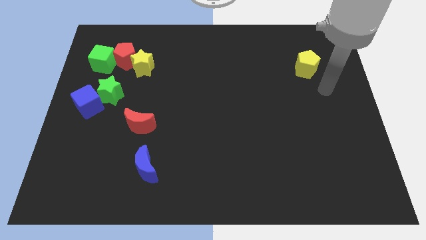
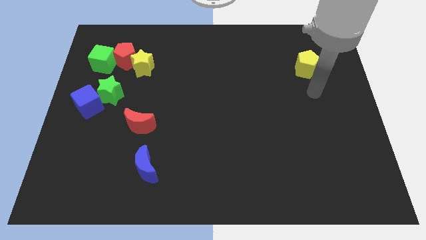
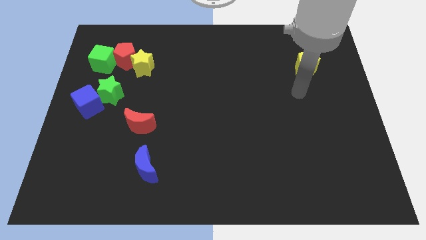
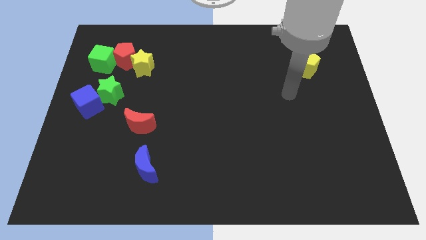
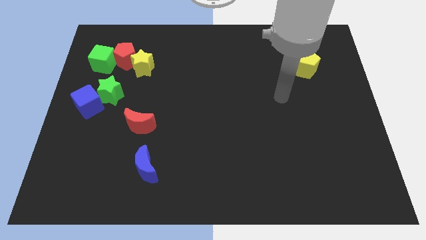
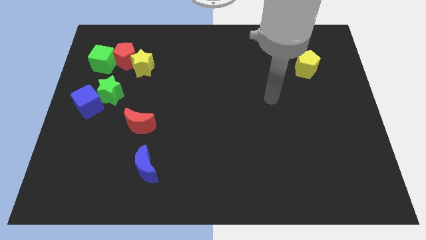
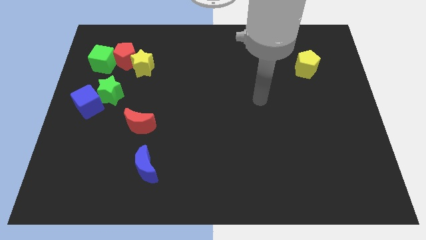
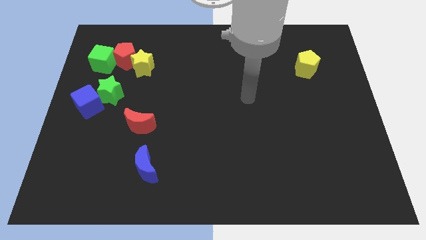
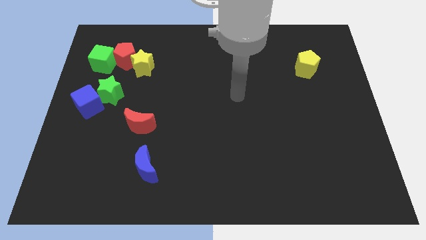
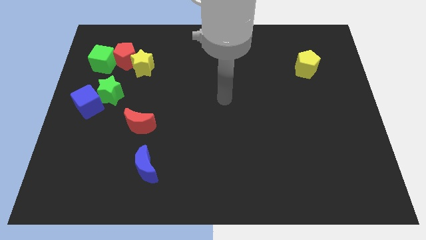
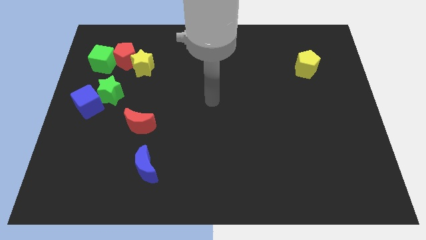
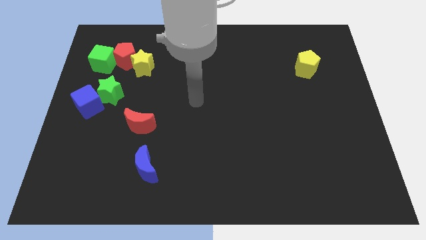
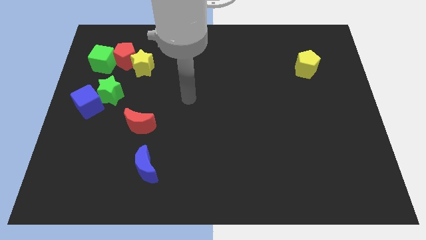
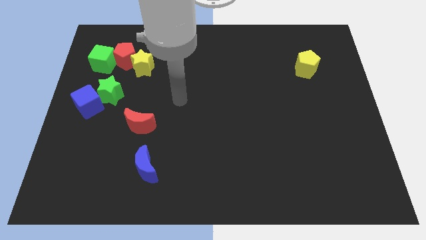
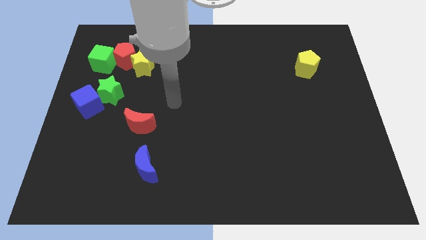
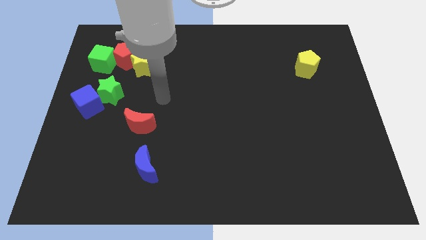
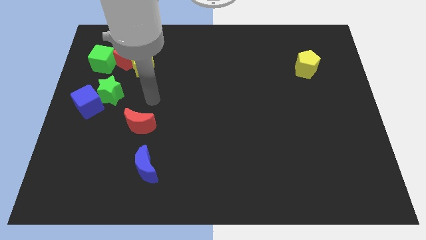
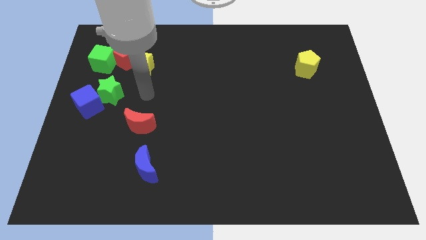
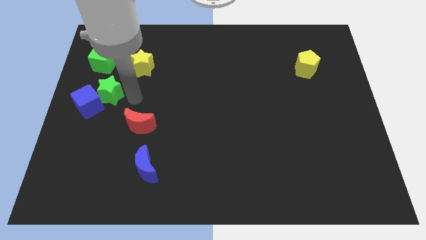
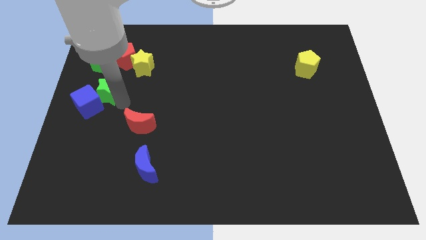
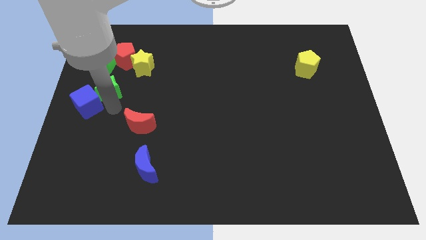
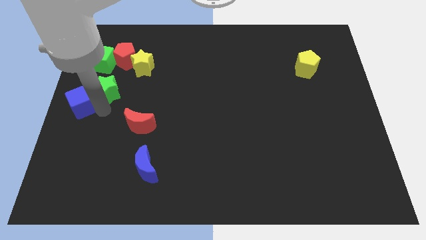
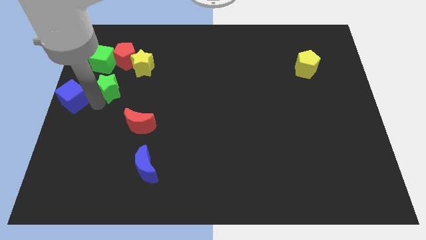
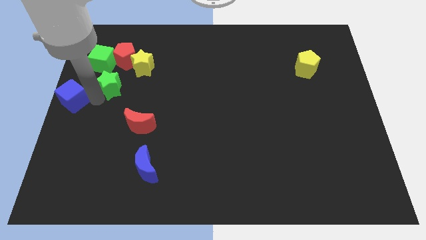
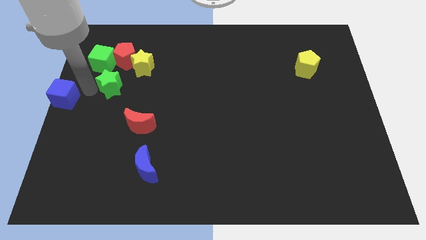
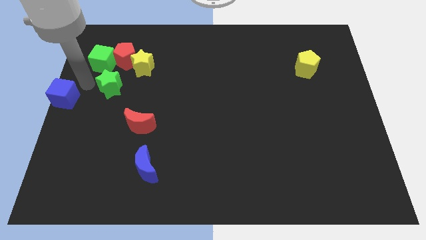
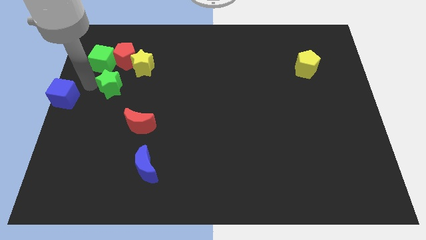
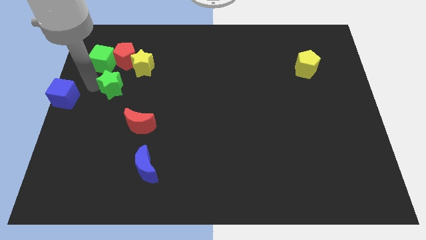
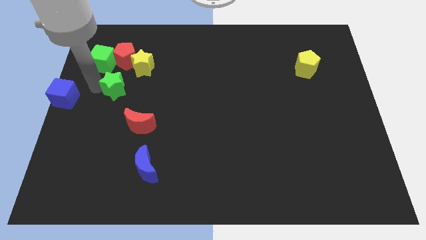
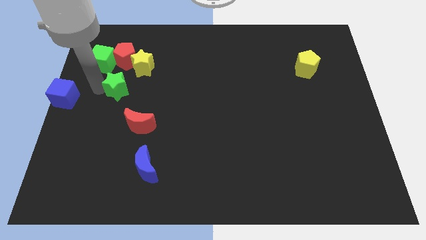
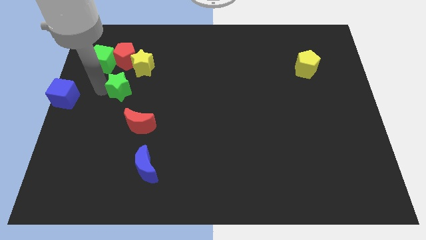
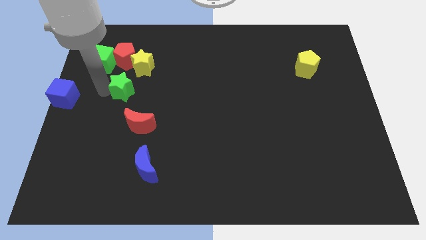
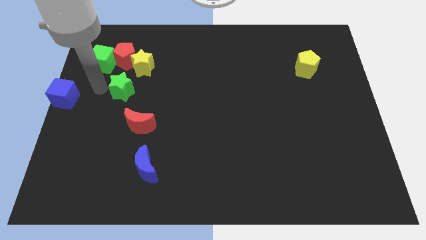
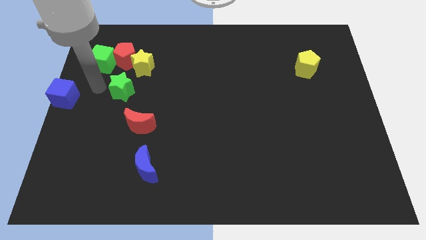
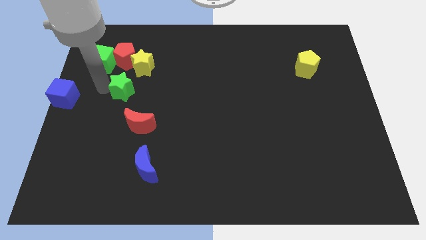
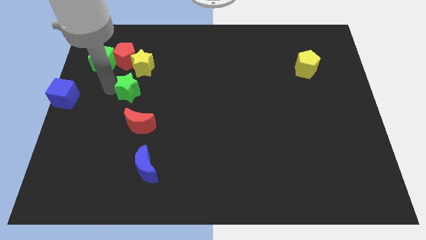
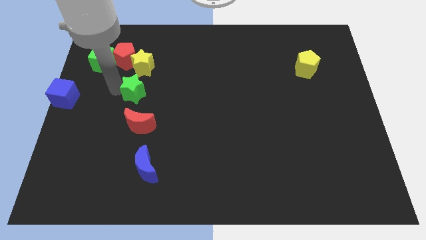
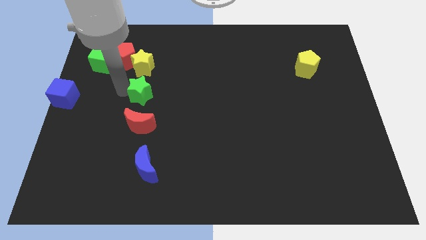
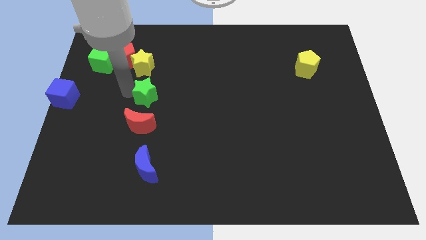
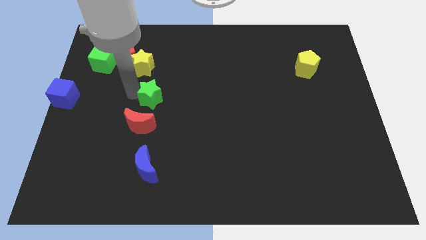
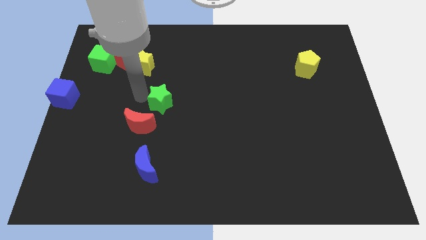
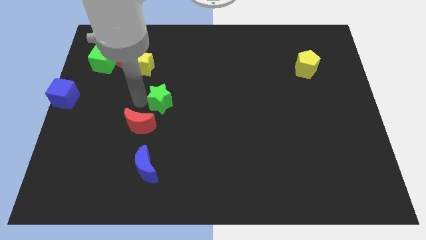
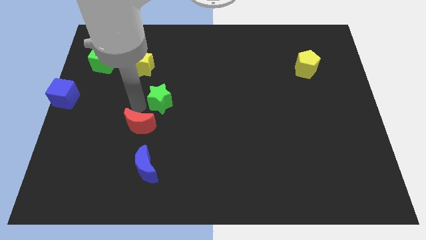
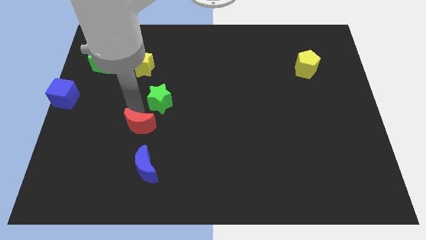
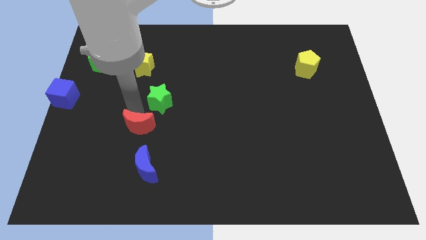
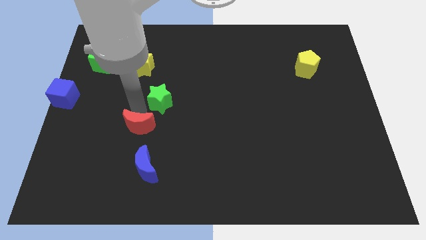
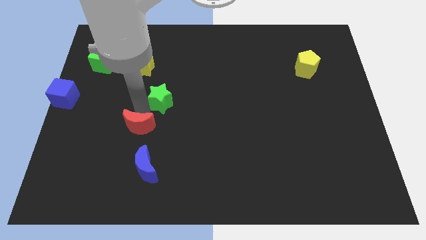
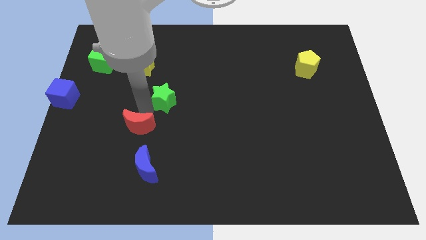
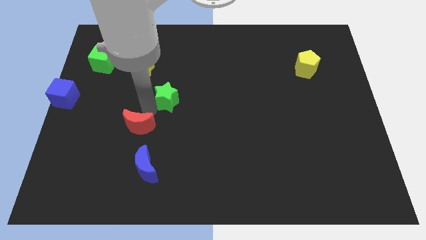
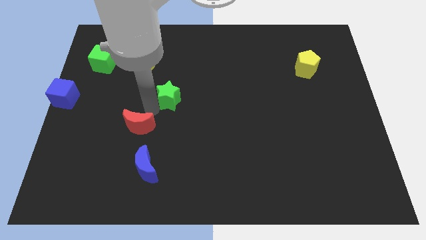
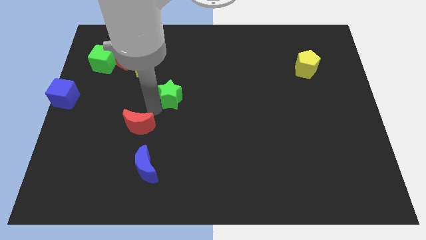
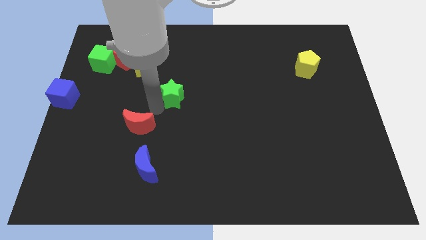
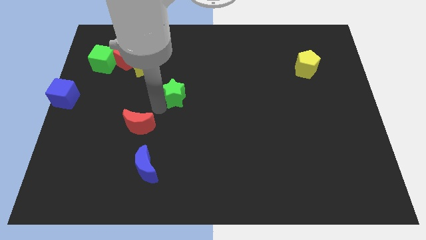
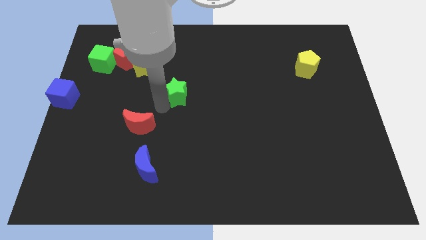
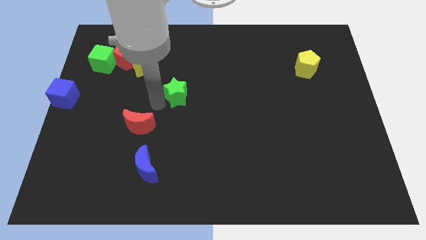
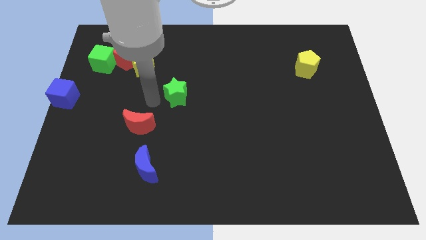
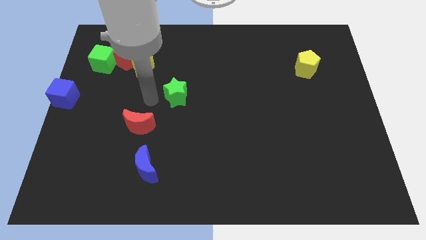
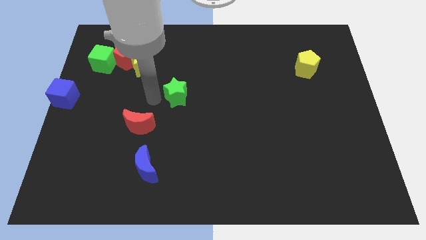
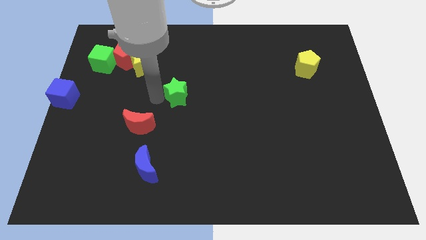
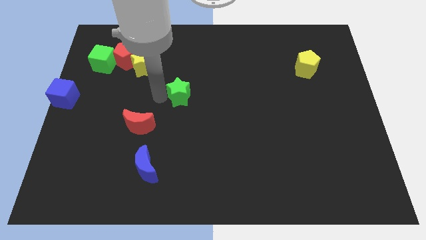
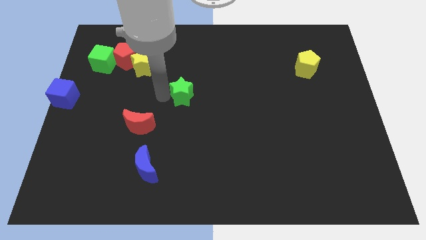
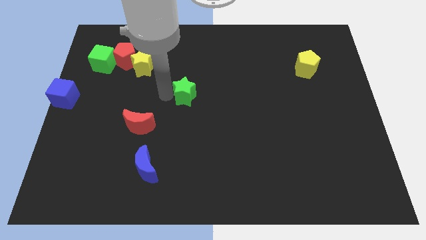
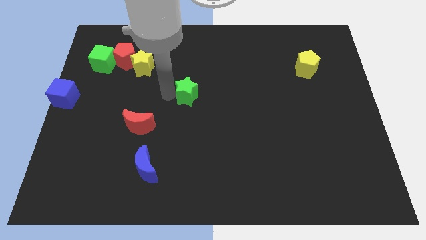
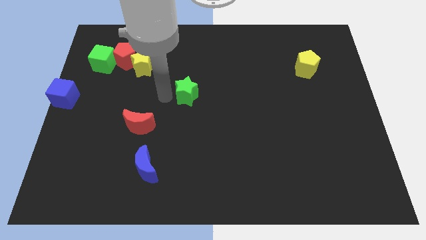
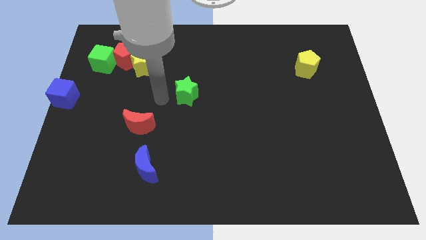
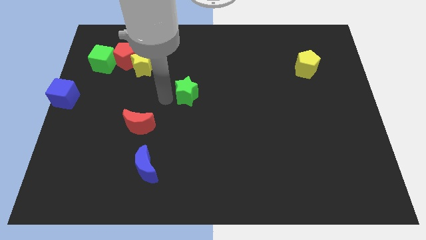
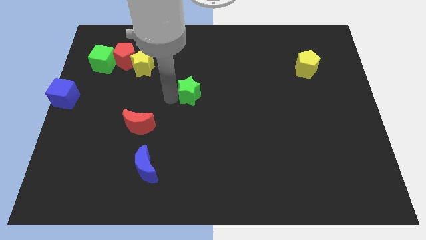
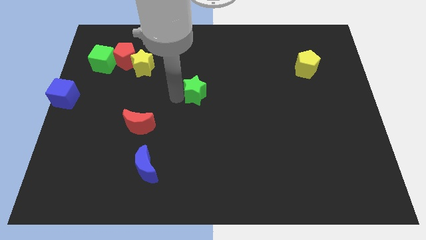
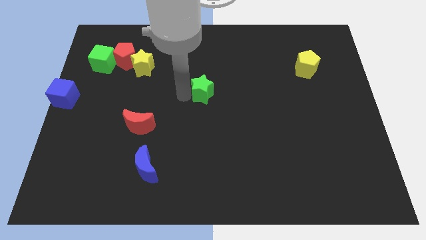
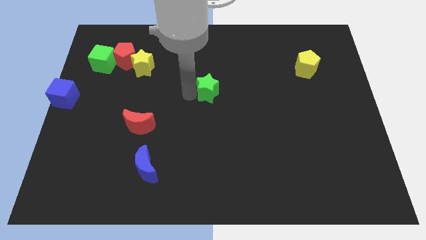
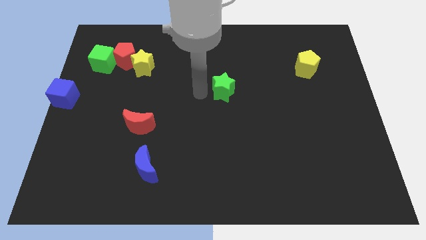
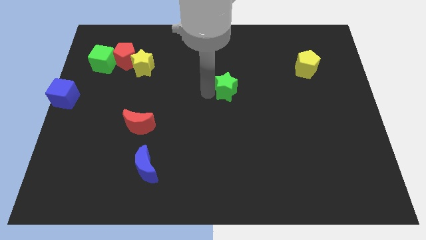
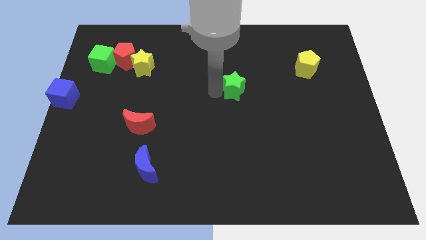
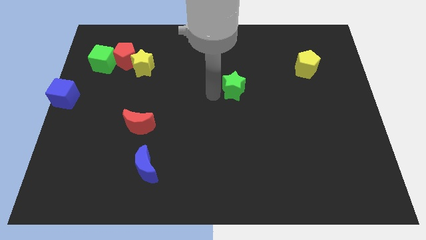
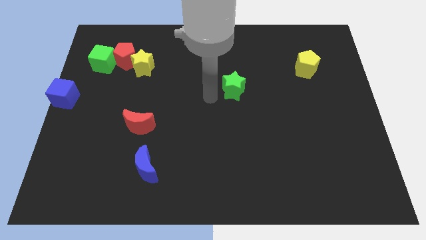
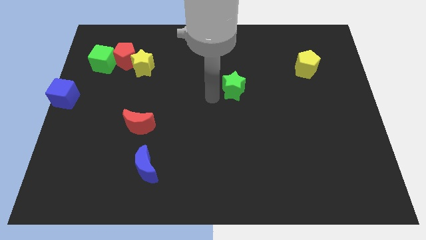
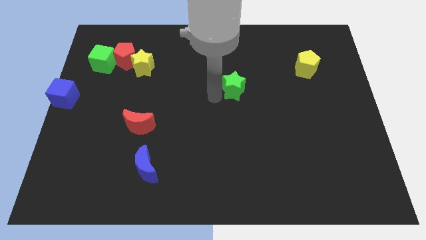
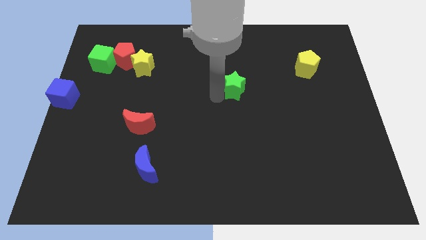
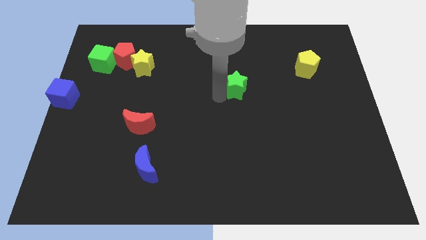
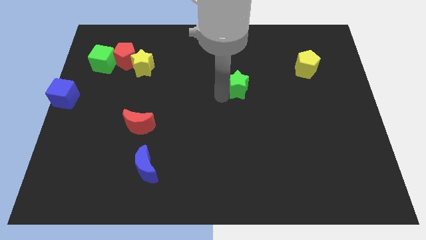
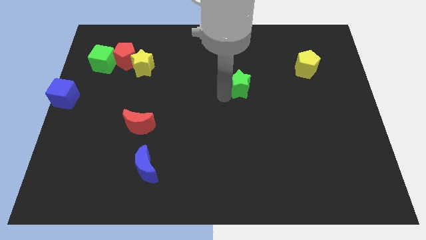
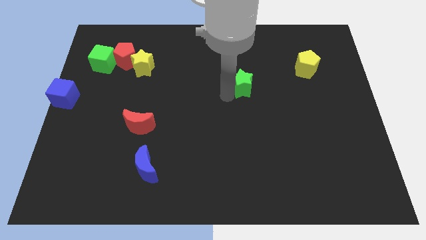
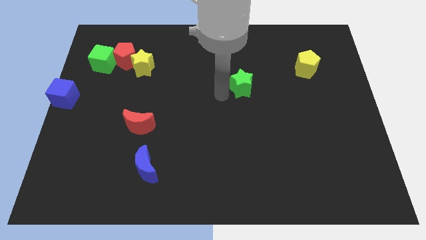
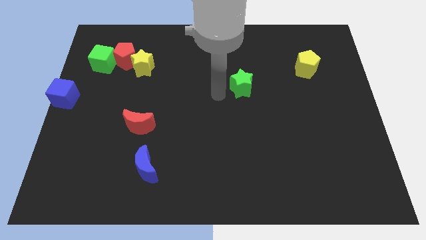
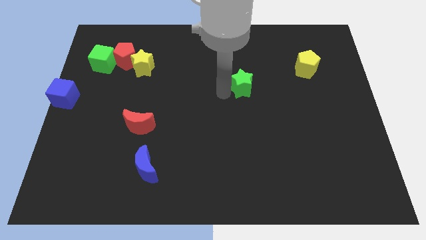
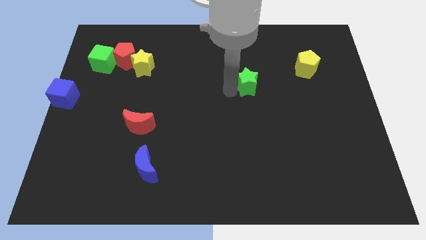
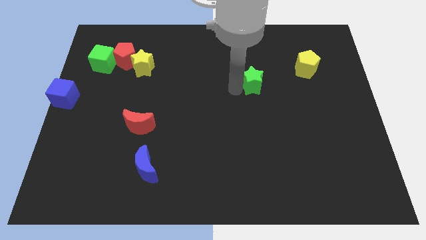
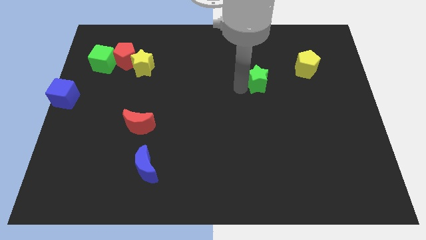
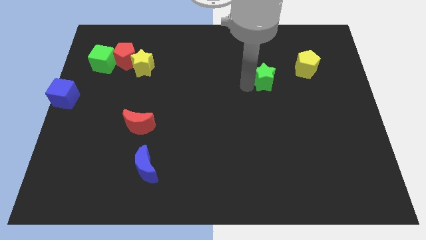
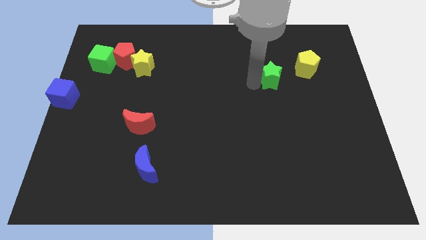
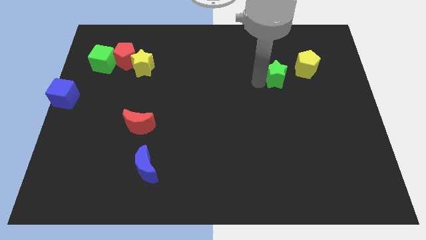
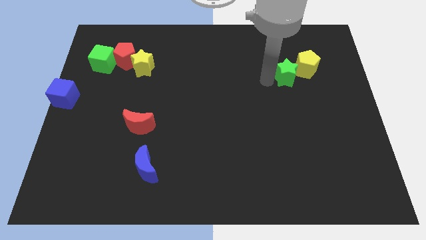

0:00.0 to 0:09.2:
move the green star close to the yellow pentagon
